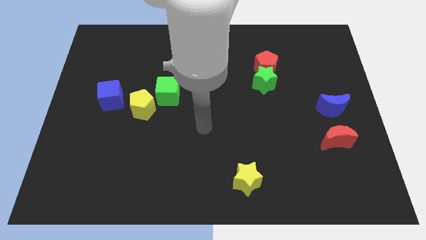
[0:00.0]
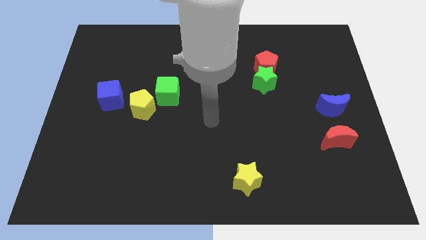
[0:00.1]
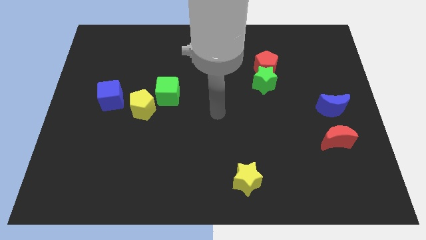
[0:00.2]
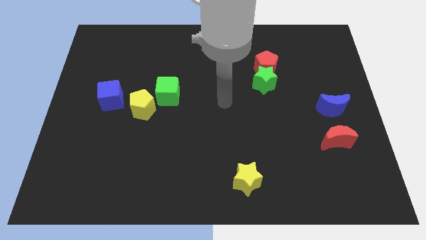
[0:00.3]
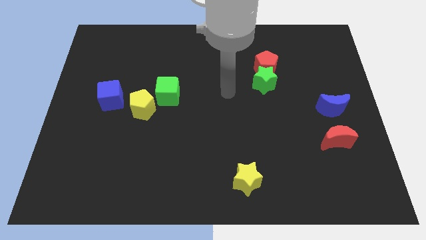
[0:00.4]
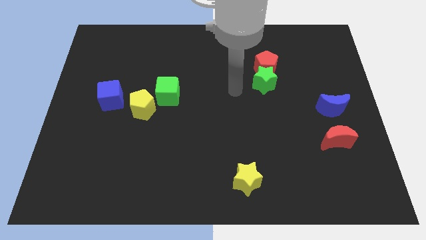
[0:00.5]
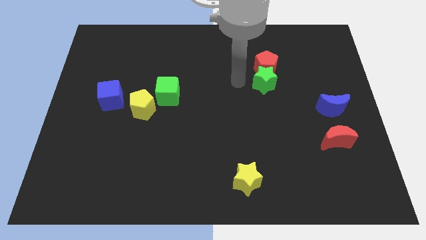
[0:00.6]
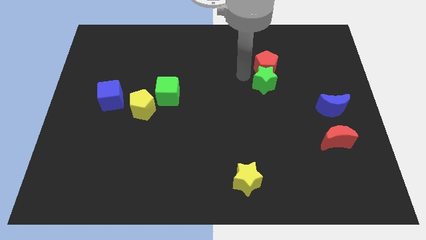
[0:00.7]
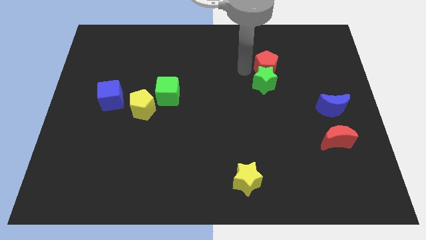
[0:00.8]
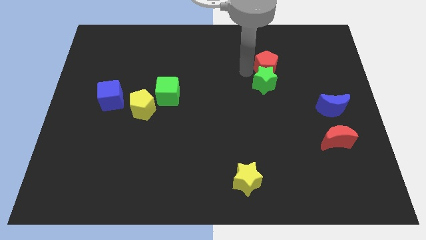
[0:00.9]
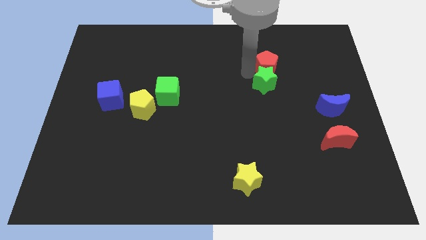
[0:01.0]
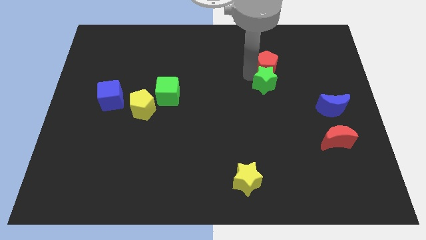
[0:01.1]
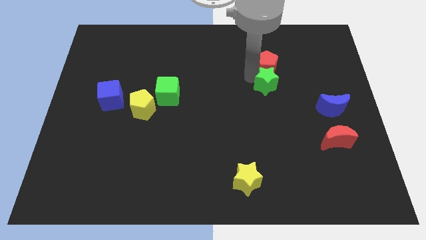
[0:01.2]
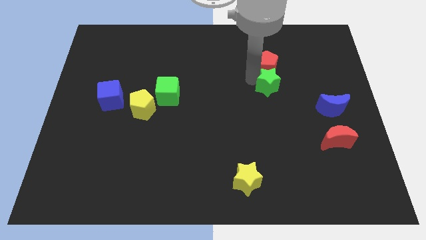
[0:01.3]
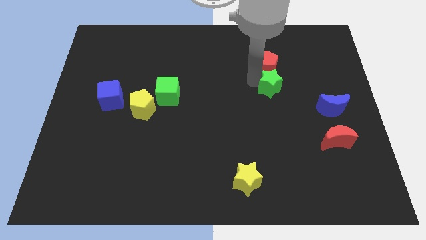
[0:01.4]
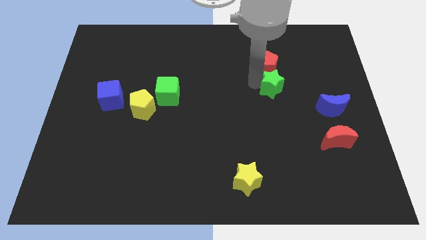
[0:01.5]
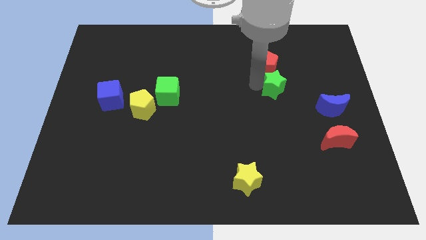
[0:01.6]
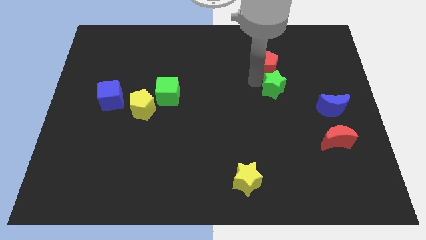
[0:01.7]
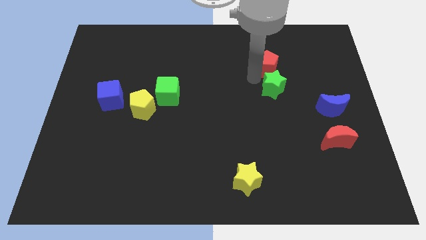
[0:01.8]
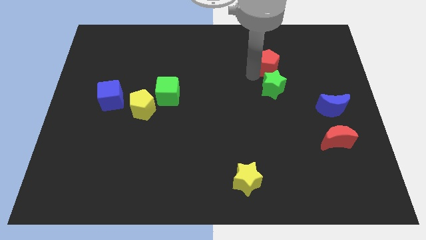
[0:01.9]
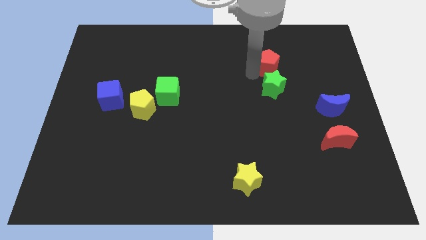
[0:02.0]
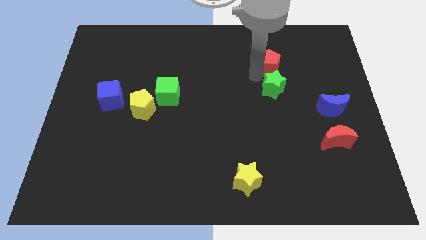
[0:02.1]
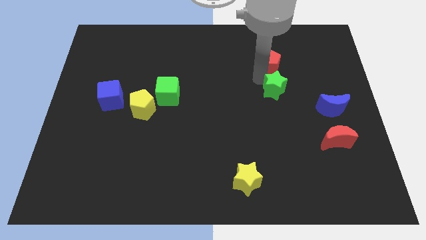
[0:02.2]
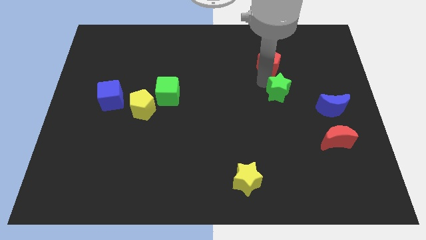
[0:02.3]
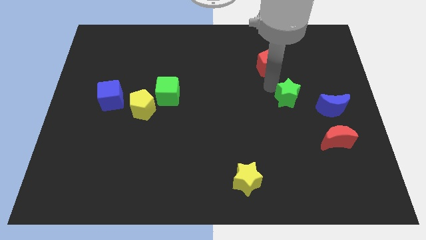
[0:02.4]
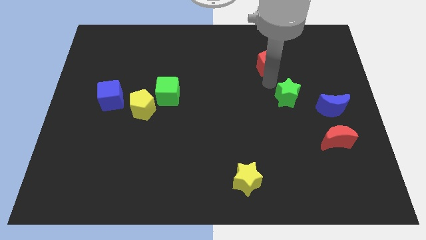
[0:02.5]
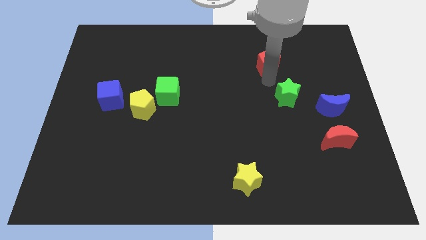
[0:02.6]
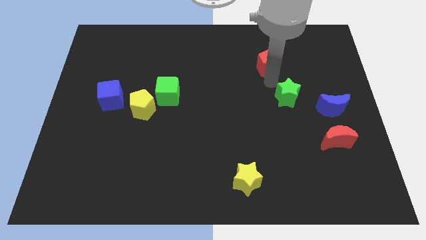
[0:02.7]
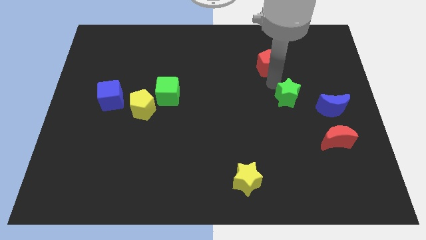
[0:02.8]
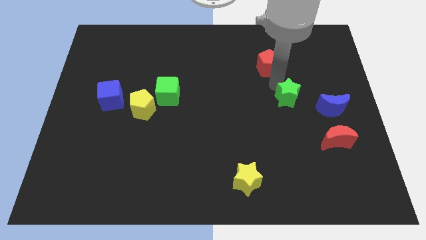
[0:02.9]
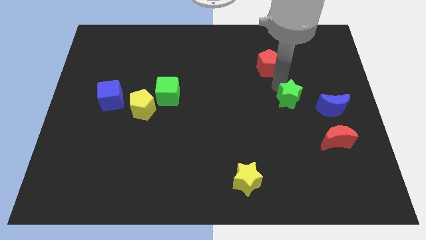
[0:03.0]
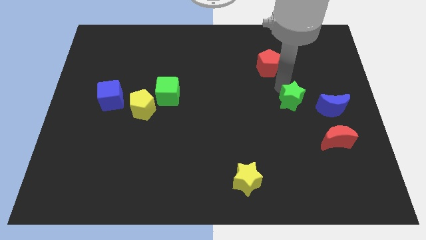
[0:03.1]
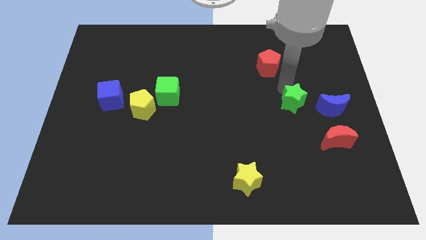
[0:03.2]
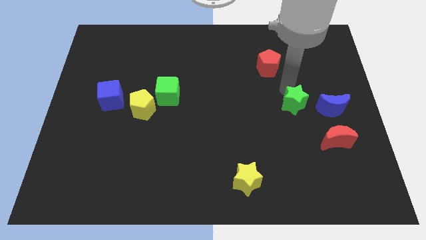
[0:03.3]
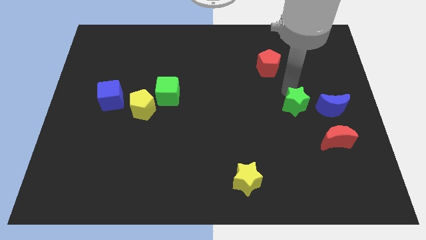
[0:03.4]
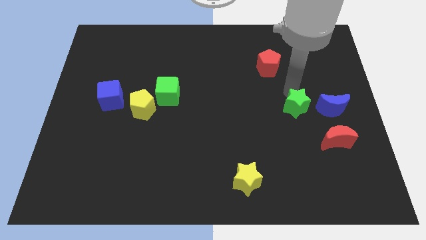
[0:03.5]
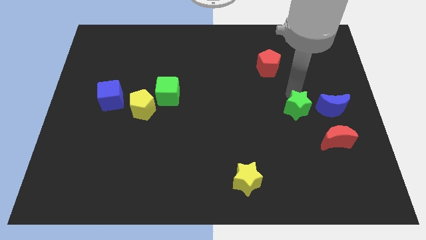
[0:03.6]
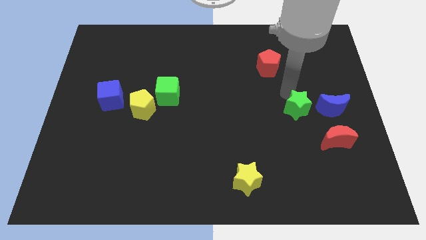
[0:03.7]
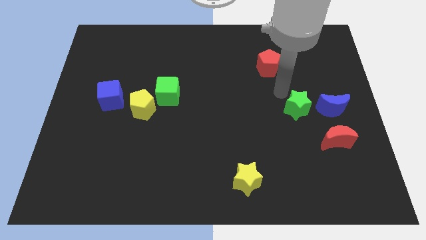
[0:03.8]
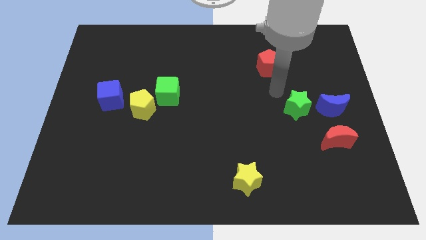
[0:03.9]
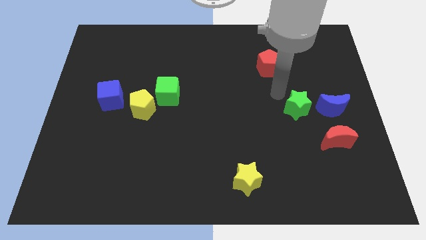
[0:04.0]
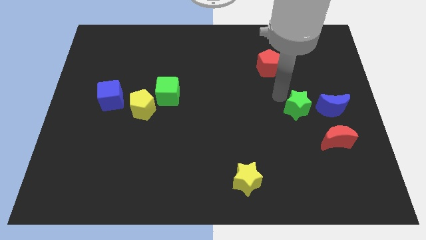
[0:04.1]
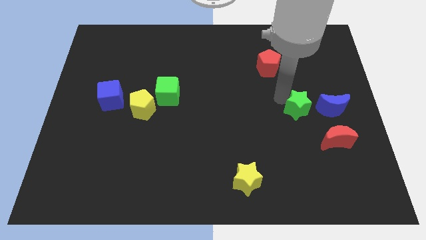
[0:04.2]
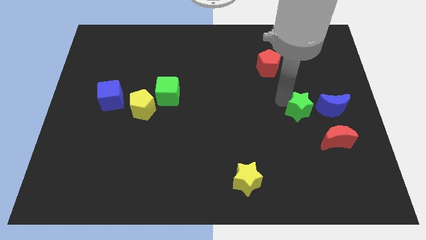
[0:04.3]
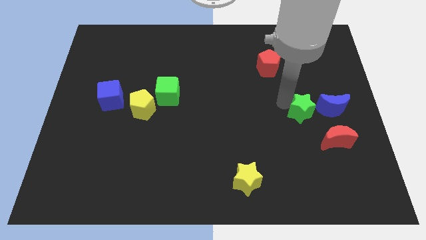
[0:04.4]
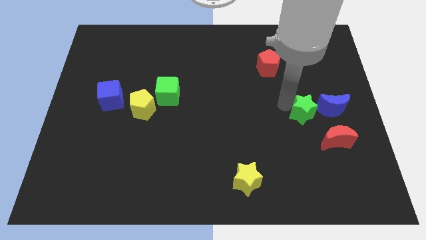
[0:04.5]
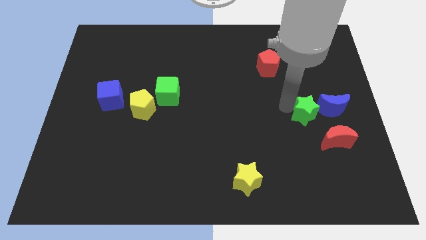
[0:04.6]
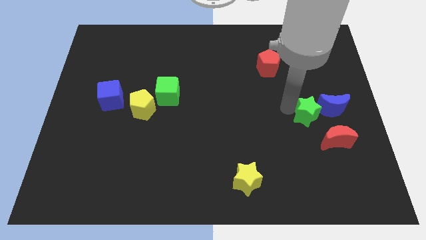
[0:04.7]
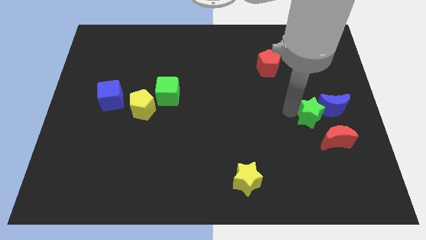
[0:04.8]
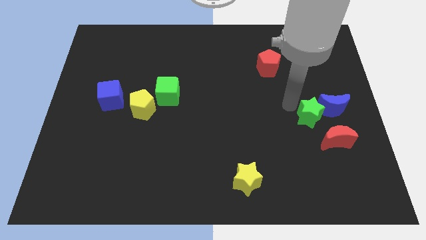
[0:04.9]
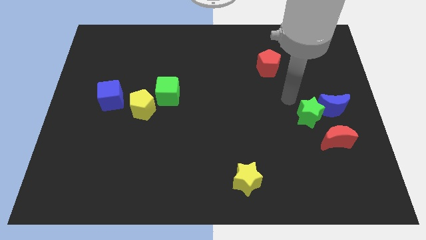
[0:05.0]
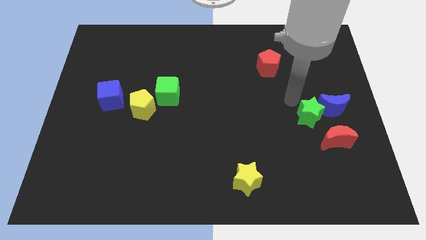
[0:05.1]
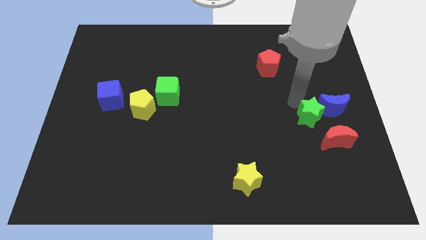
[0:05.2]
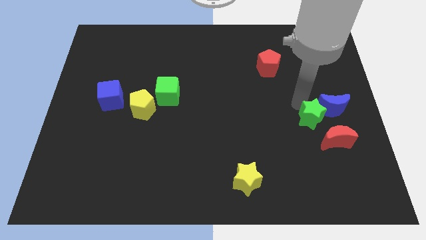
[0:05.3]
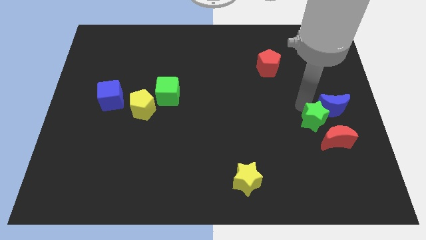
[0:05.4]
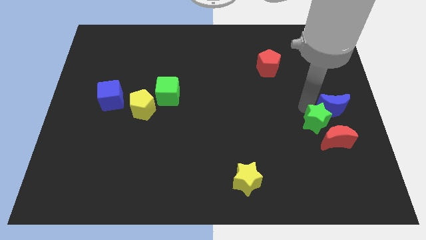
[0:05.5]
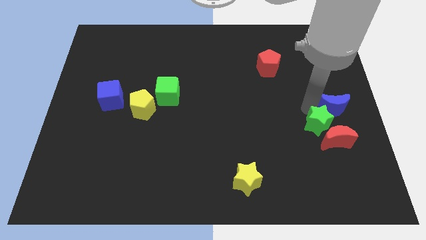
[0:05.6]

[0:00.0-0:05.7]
slide the green star next to the red moon

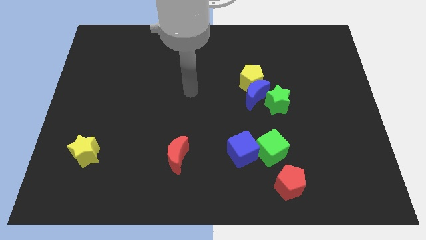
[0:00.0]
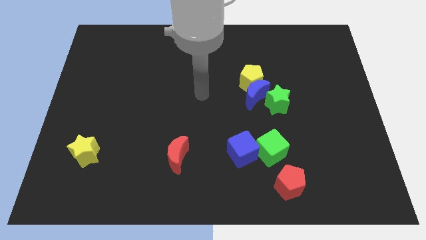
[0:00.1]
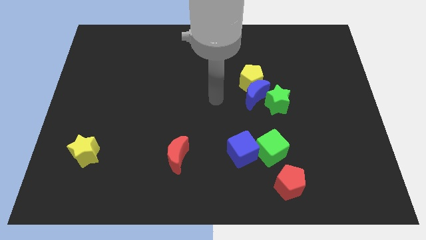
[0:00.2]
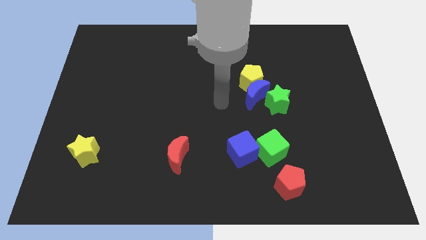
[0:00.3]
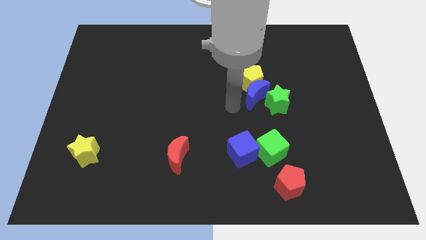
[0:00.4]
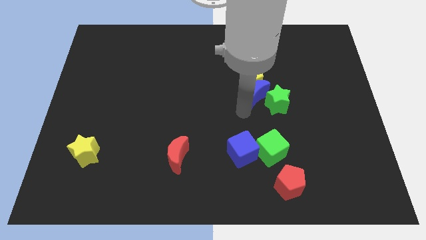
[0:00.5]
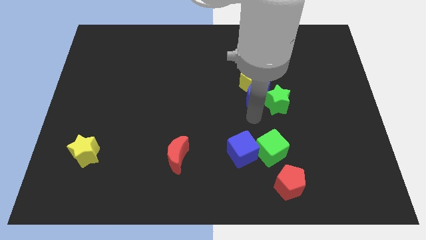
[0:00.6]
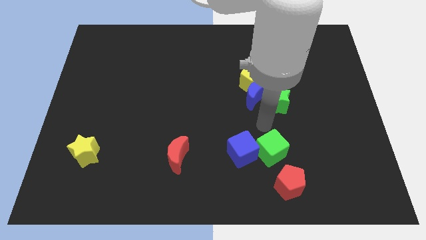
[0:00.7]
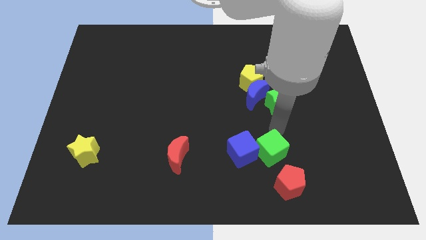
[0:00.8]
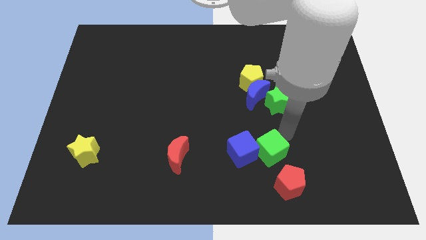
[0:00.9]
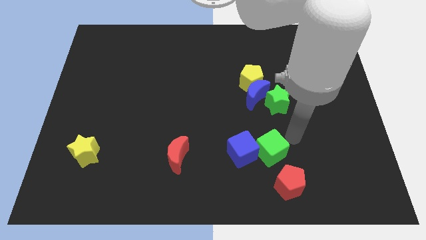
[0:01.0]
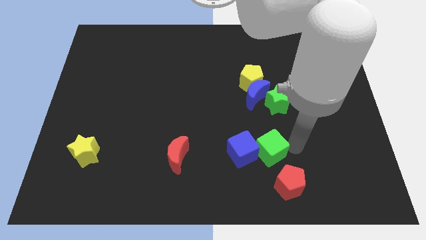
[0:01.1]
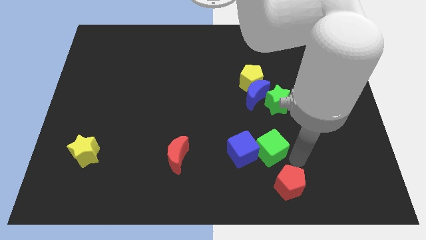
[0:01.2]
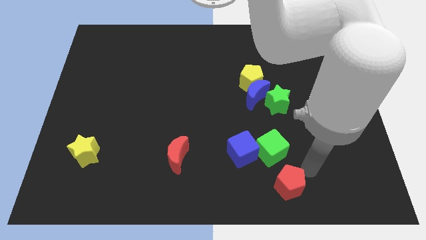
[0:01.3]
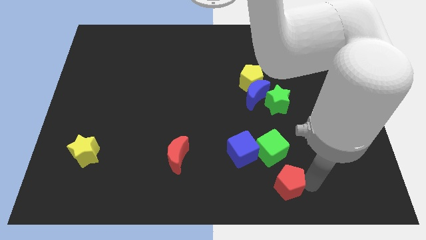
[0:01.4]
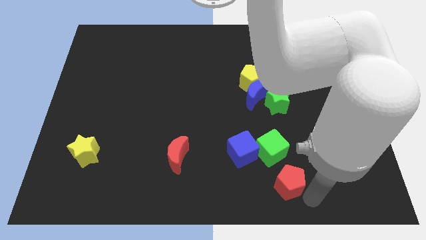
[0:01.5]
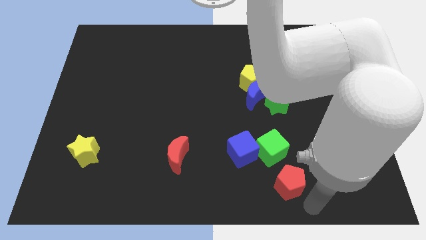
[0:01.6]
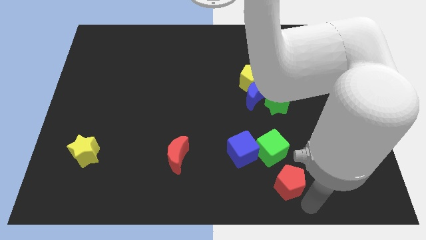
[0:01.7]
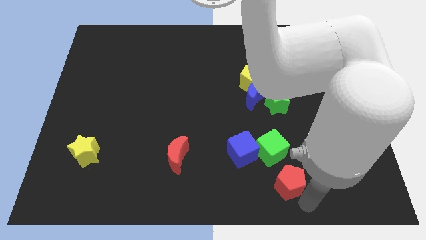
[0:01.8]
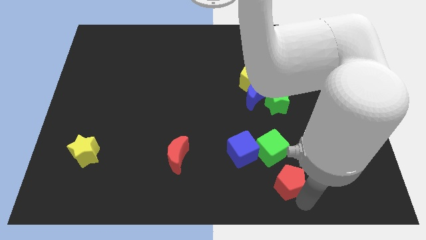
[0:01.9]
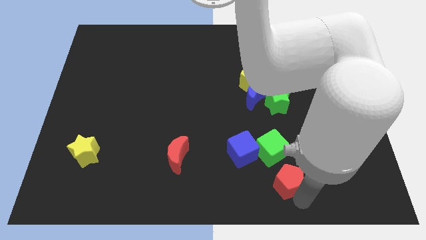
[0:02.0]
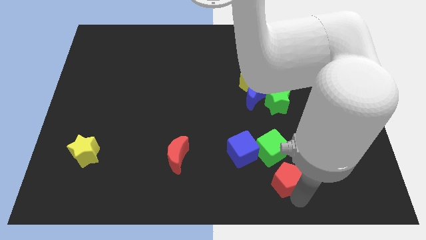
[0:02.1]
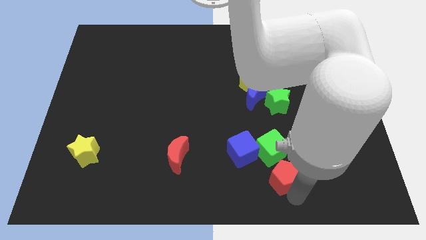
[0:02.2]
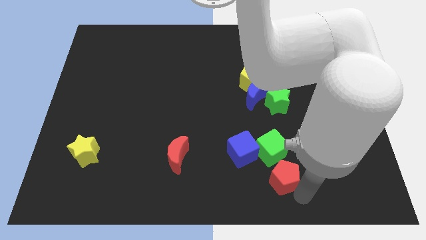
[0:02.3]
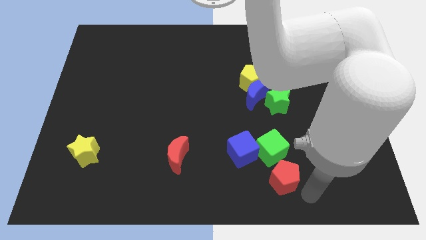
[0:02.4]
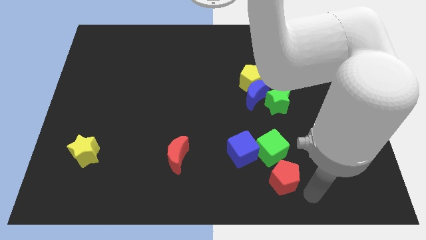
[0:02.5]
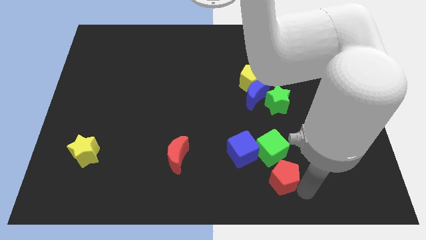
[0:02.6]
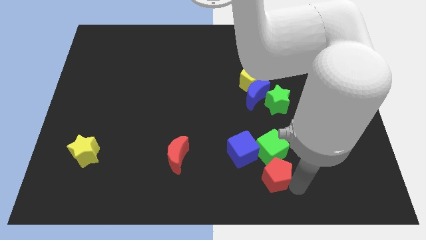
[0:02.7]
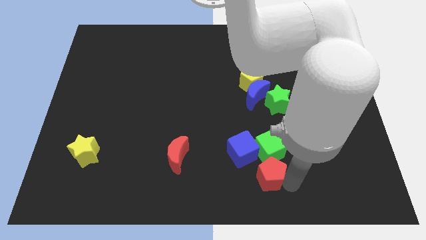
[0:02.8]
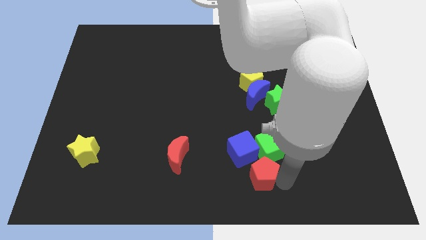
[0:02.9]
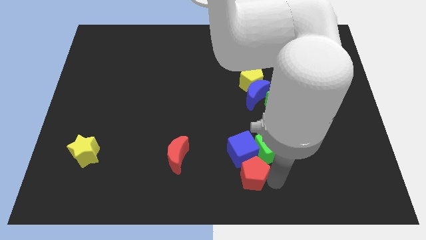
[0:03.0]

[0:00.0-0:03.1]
push the red pentagon next to the blue cube
